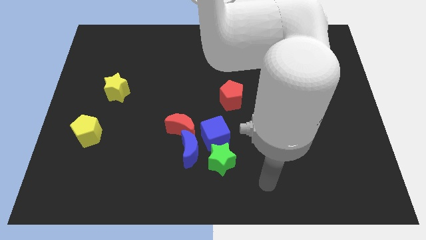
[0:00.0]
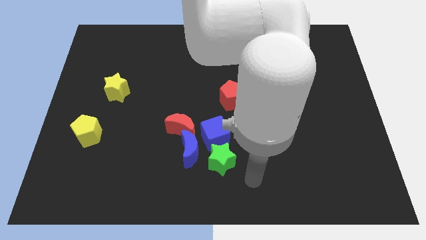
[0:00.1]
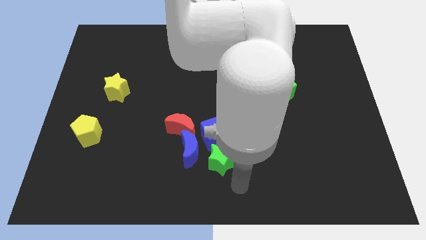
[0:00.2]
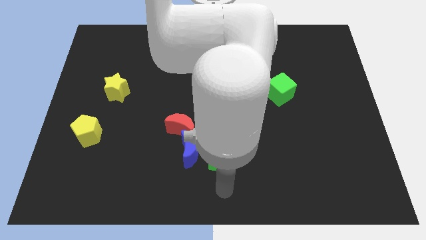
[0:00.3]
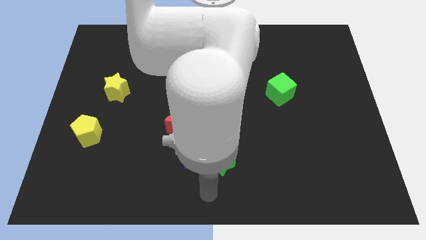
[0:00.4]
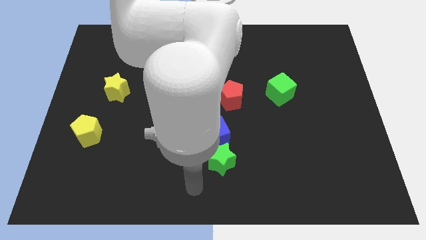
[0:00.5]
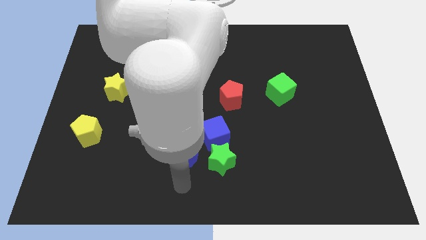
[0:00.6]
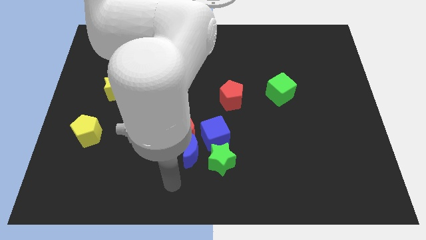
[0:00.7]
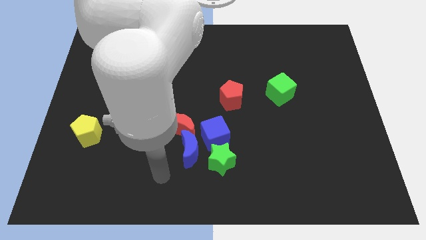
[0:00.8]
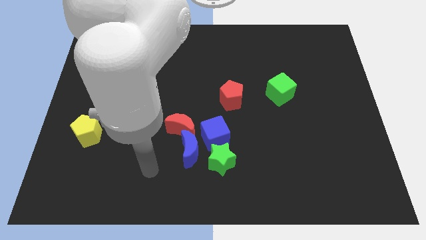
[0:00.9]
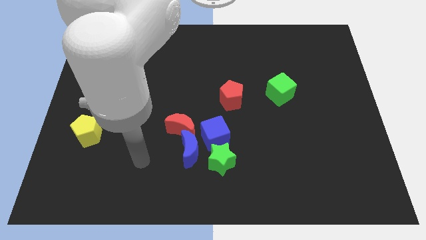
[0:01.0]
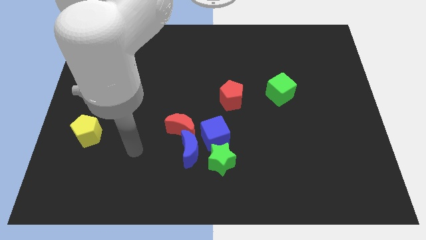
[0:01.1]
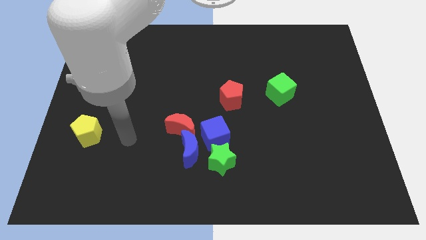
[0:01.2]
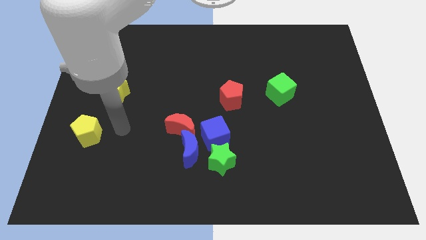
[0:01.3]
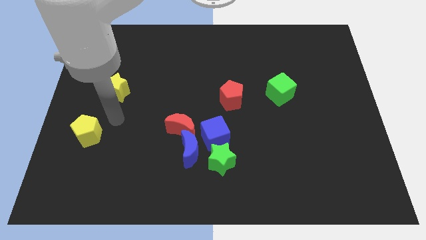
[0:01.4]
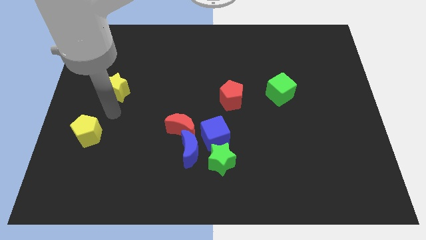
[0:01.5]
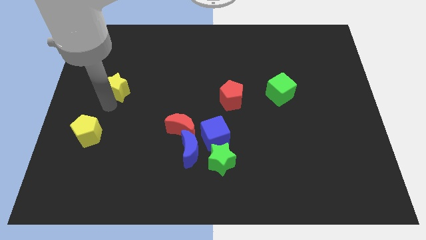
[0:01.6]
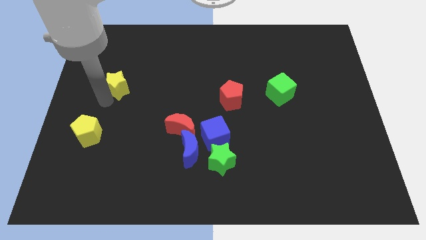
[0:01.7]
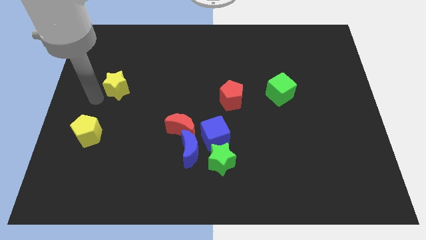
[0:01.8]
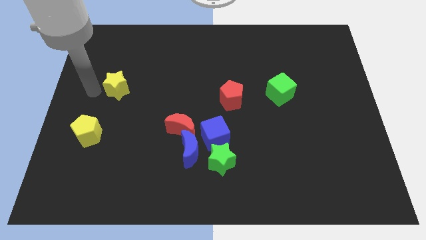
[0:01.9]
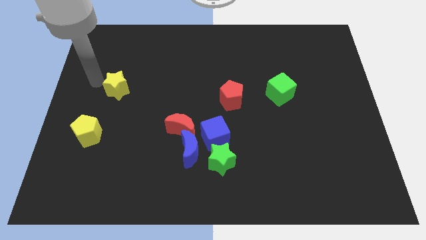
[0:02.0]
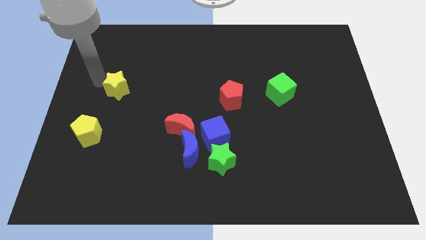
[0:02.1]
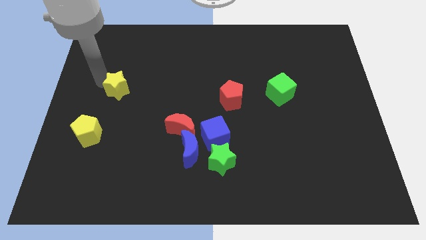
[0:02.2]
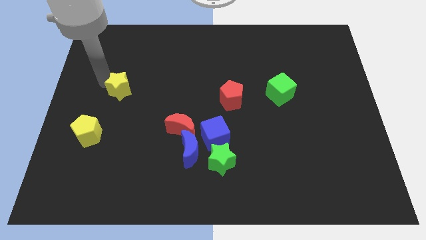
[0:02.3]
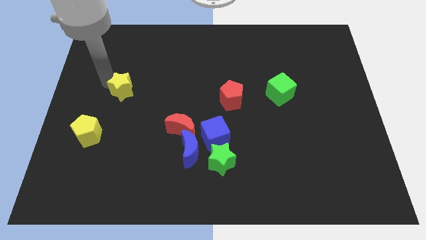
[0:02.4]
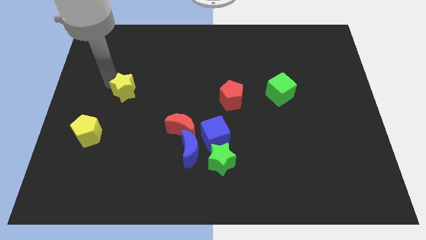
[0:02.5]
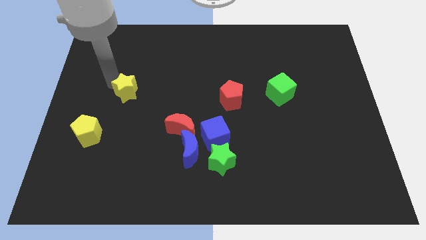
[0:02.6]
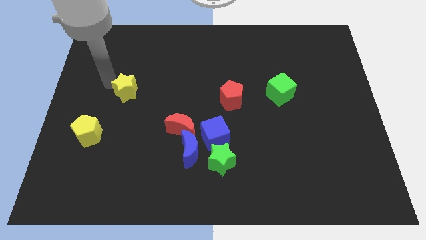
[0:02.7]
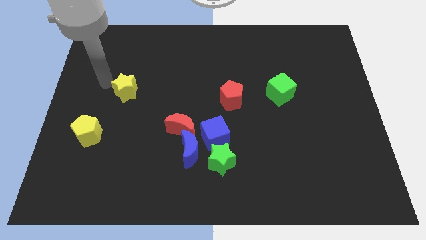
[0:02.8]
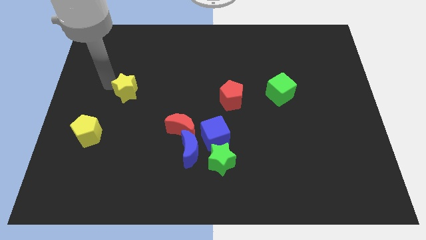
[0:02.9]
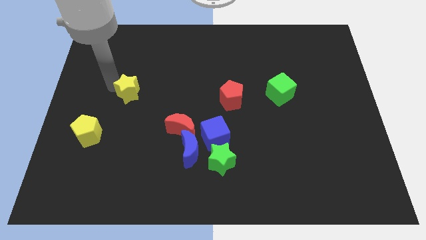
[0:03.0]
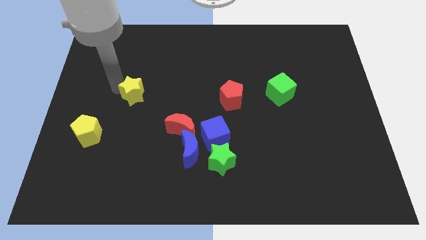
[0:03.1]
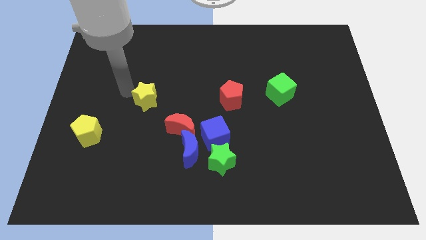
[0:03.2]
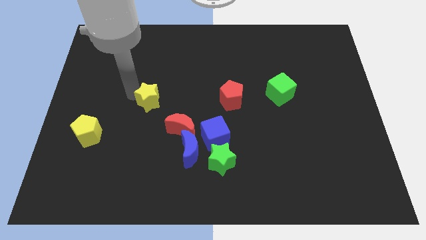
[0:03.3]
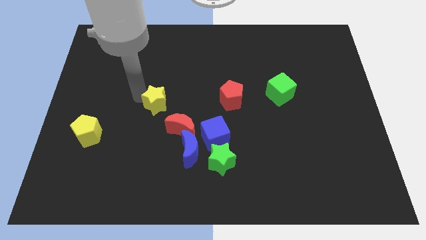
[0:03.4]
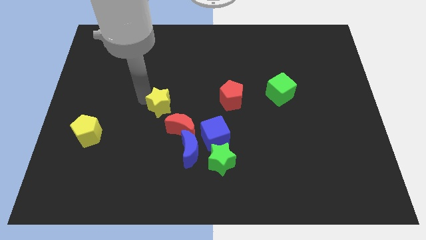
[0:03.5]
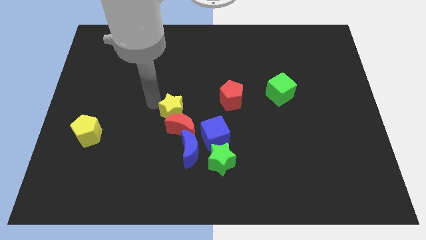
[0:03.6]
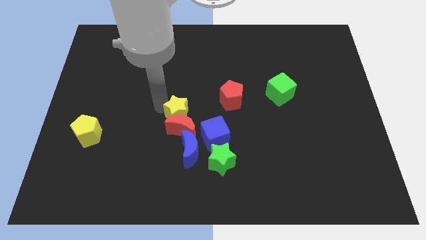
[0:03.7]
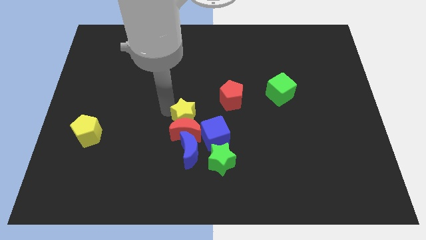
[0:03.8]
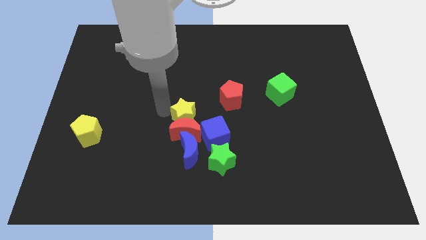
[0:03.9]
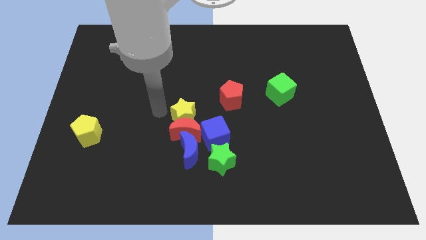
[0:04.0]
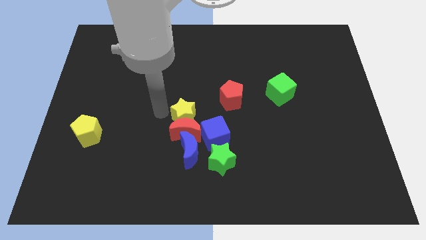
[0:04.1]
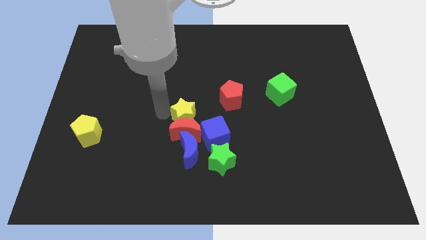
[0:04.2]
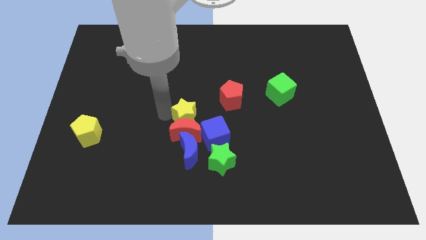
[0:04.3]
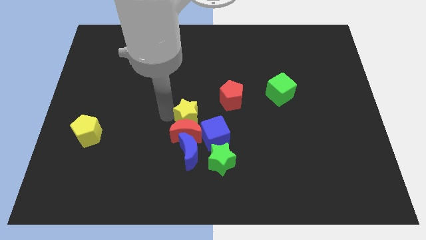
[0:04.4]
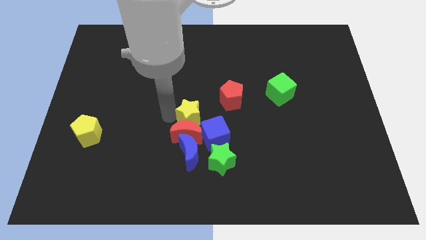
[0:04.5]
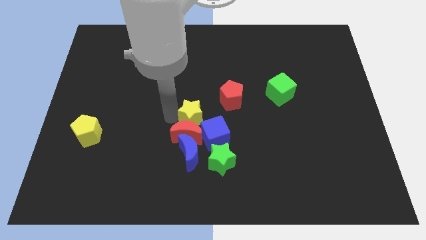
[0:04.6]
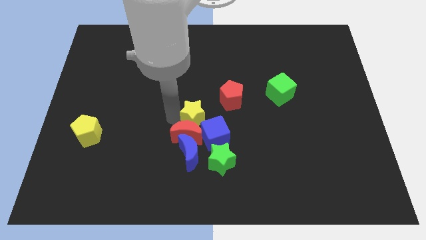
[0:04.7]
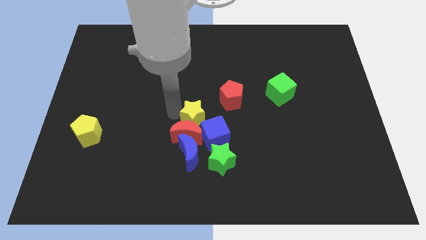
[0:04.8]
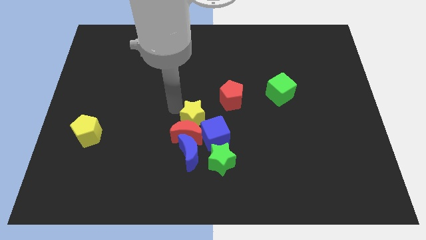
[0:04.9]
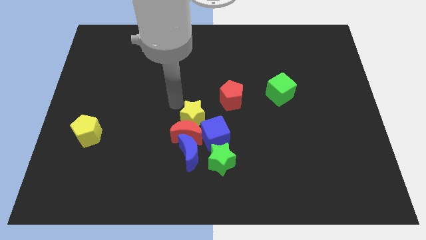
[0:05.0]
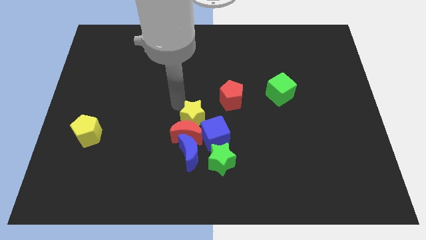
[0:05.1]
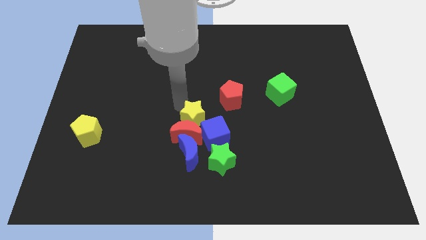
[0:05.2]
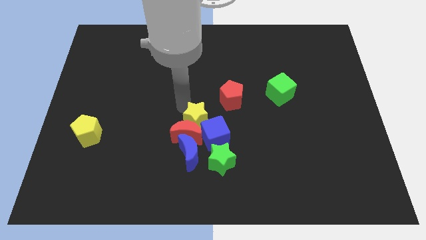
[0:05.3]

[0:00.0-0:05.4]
push the yellow star towards the blue cube

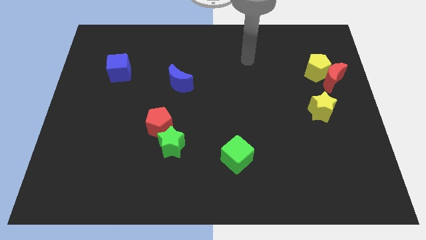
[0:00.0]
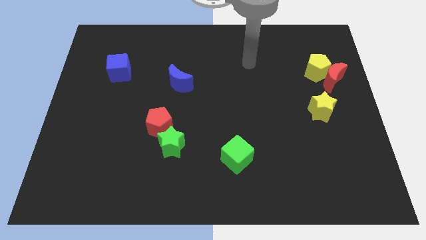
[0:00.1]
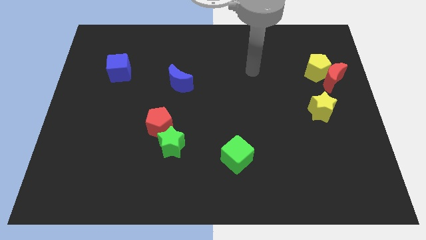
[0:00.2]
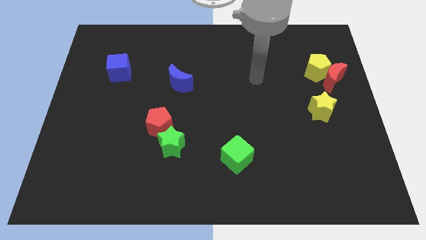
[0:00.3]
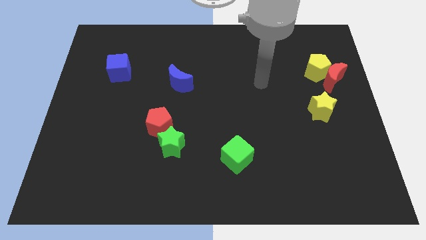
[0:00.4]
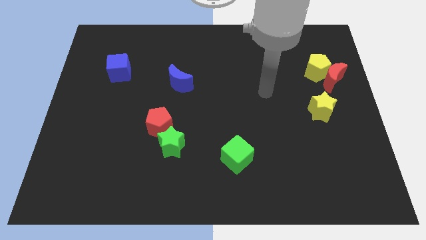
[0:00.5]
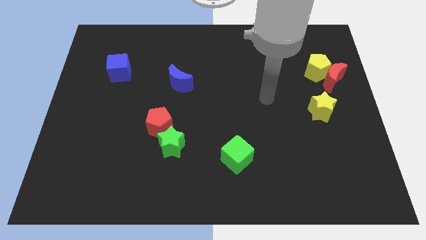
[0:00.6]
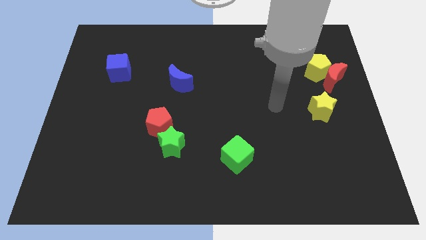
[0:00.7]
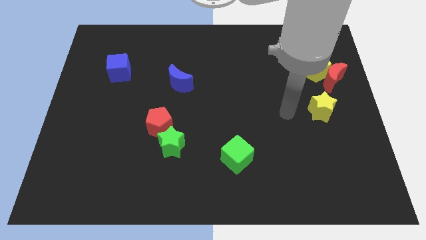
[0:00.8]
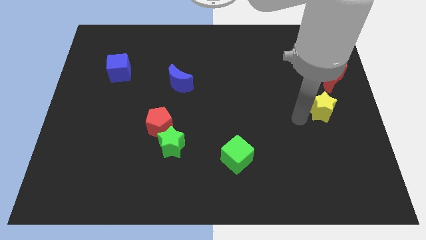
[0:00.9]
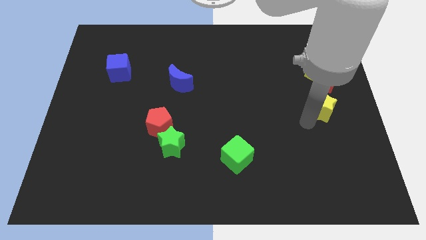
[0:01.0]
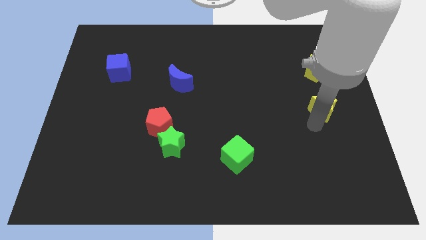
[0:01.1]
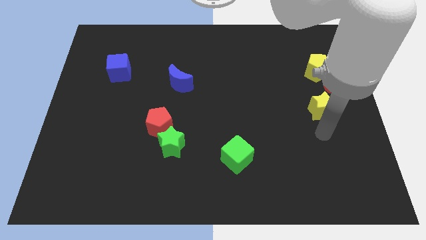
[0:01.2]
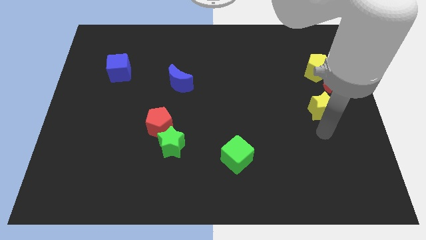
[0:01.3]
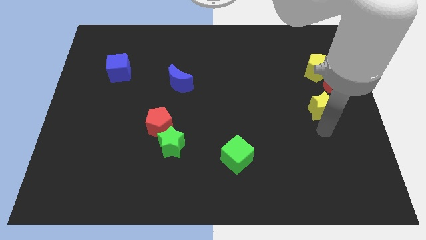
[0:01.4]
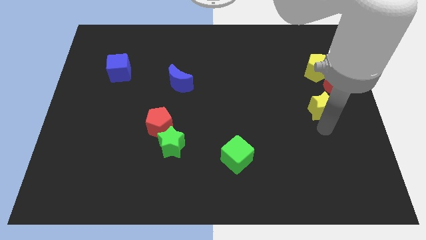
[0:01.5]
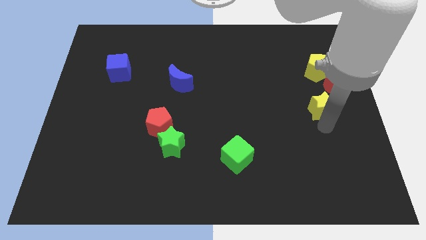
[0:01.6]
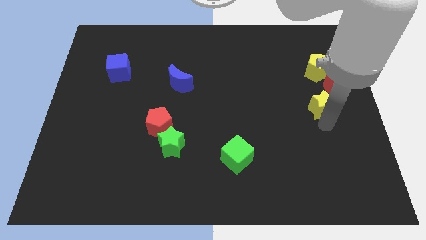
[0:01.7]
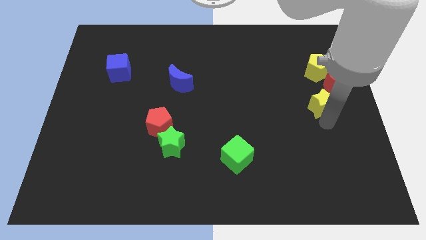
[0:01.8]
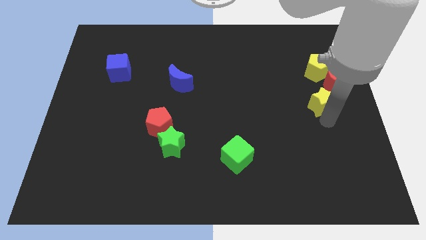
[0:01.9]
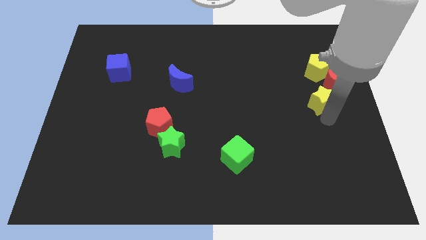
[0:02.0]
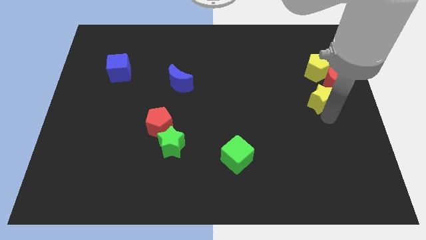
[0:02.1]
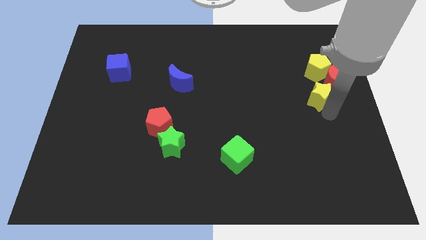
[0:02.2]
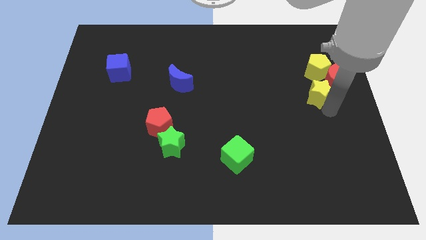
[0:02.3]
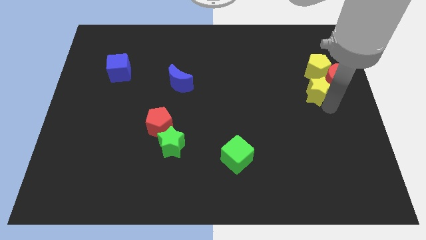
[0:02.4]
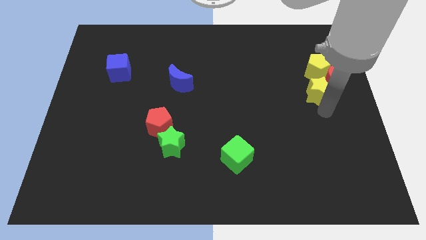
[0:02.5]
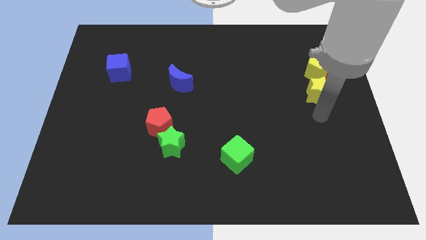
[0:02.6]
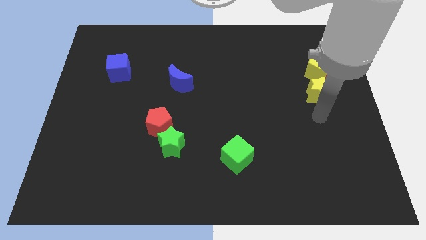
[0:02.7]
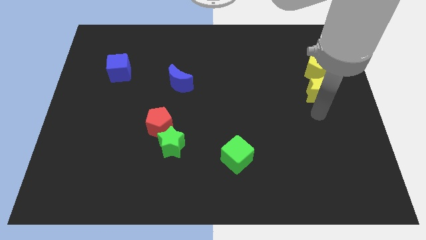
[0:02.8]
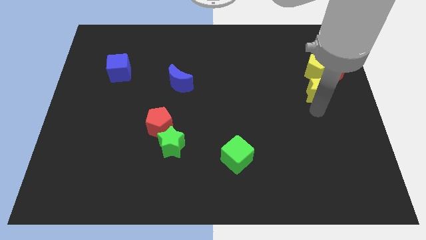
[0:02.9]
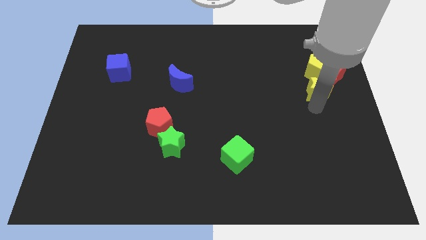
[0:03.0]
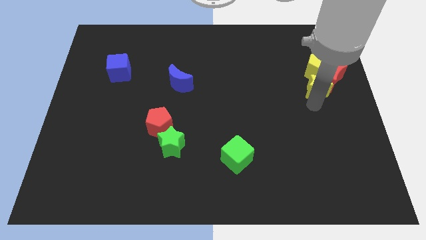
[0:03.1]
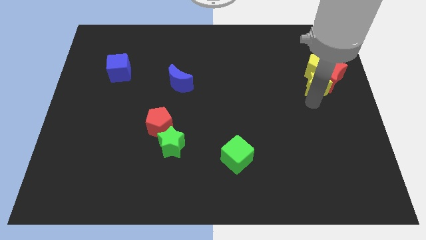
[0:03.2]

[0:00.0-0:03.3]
slide the yellow star next to the yellow pentagon
